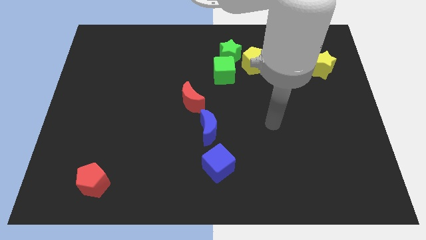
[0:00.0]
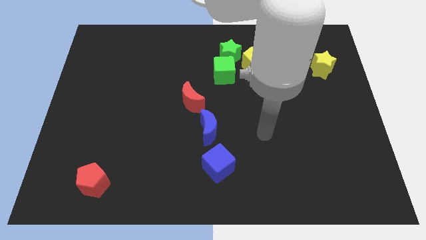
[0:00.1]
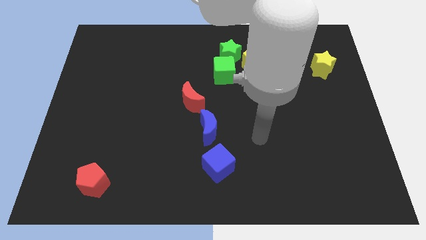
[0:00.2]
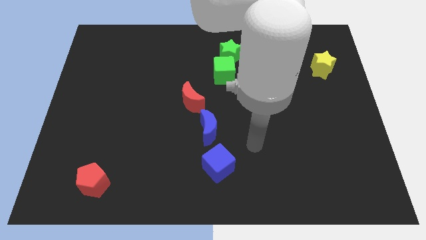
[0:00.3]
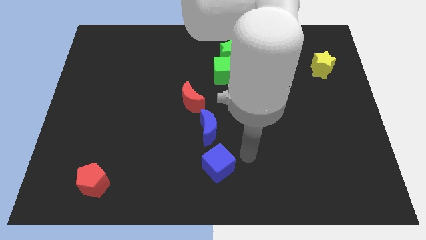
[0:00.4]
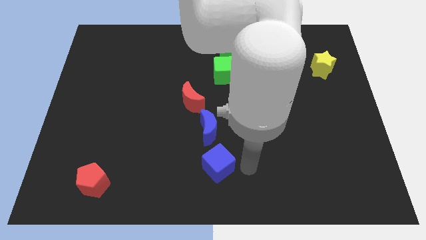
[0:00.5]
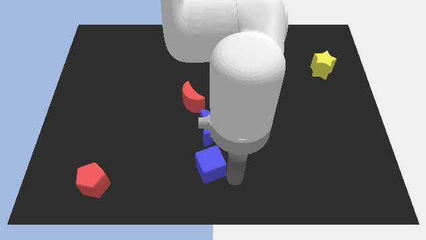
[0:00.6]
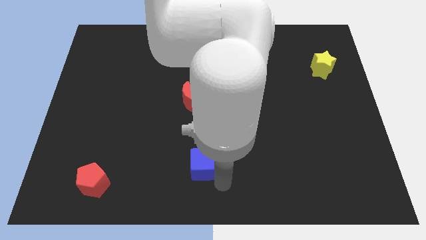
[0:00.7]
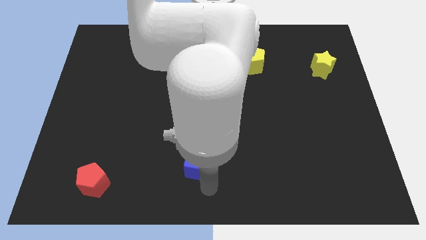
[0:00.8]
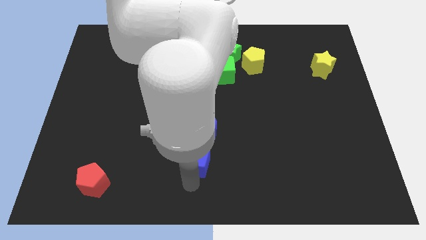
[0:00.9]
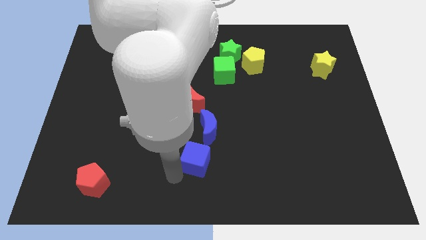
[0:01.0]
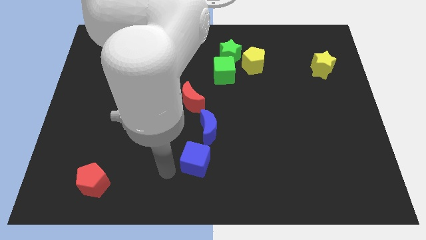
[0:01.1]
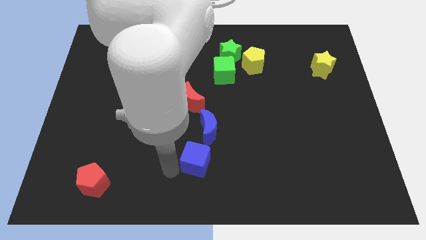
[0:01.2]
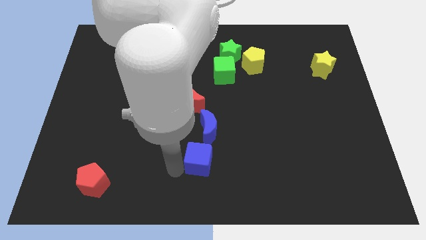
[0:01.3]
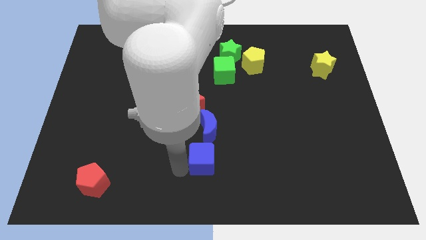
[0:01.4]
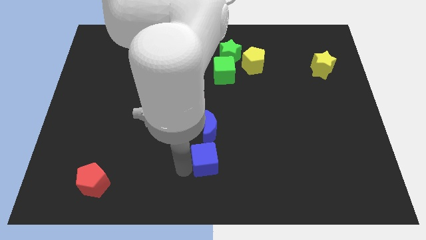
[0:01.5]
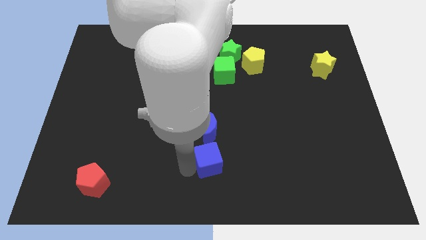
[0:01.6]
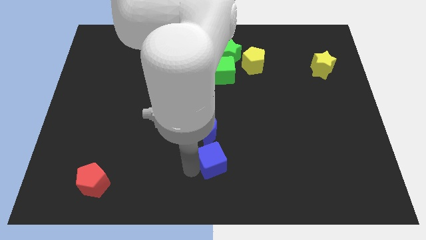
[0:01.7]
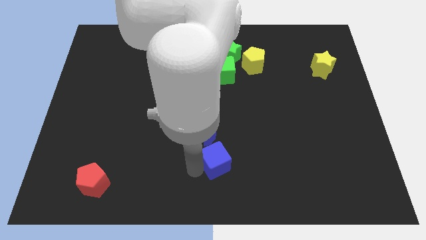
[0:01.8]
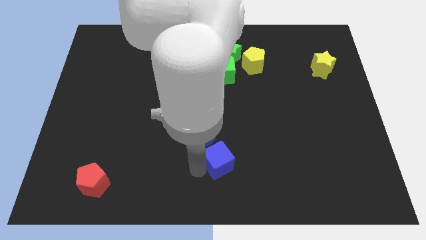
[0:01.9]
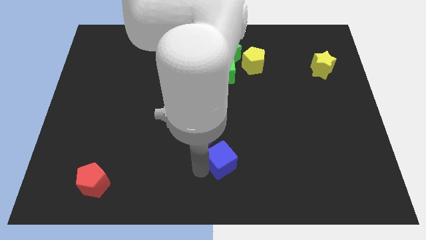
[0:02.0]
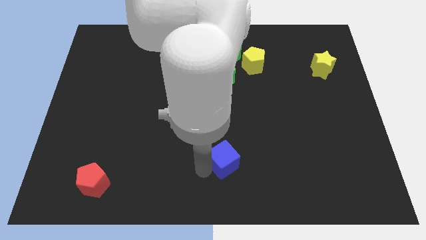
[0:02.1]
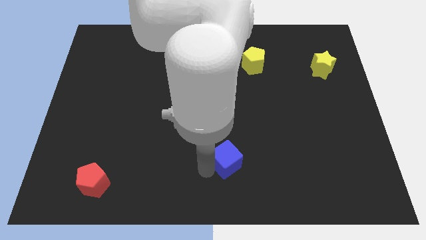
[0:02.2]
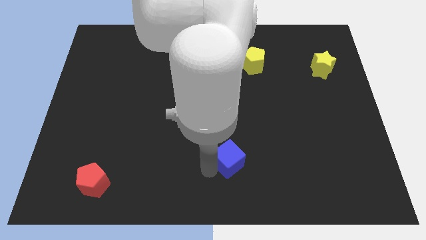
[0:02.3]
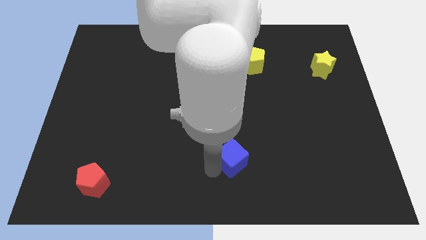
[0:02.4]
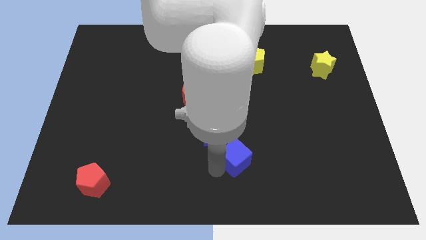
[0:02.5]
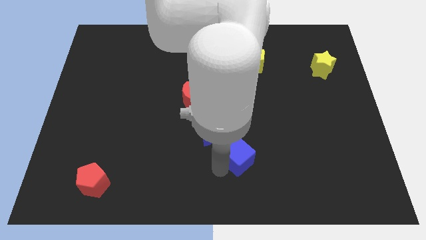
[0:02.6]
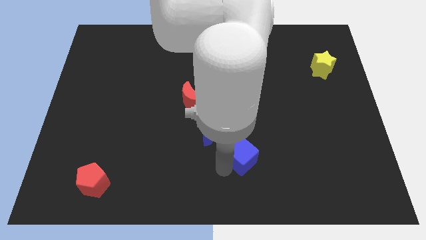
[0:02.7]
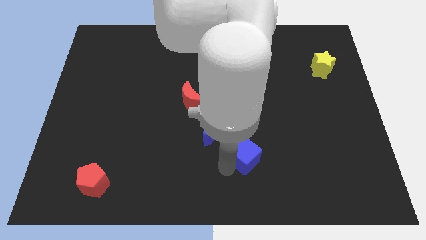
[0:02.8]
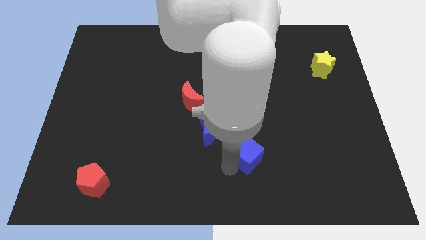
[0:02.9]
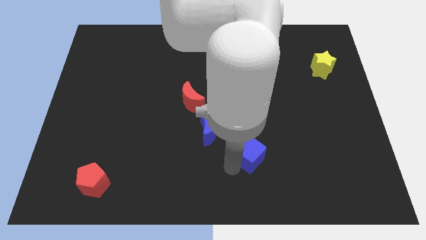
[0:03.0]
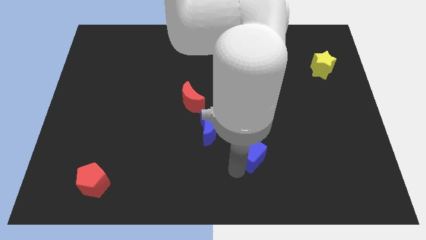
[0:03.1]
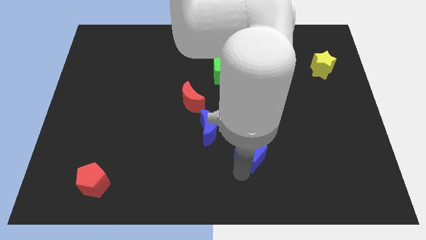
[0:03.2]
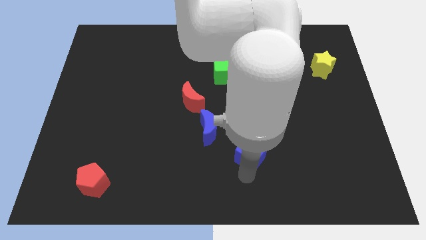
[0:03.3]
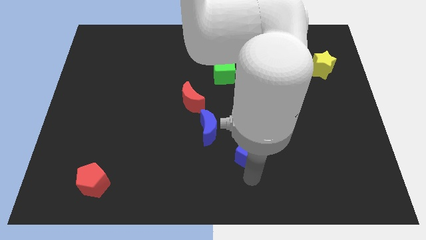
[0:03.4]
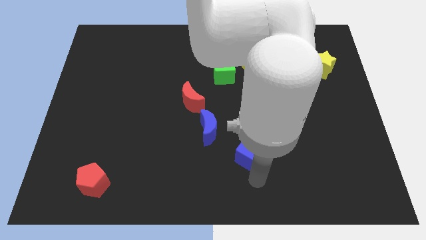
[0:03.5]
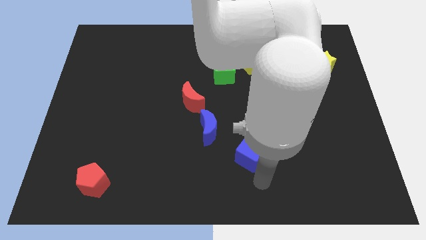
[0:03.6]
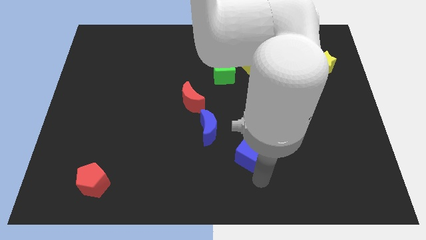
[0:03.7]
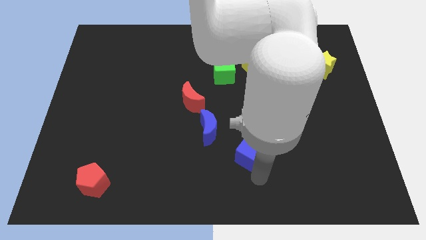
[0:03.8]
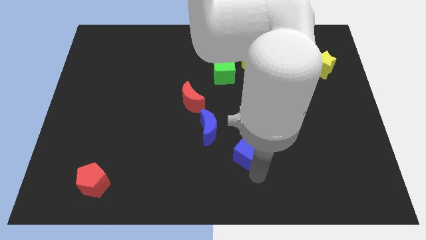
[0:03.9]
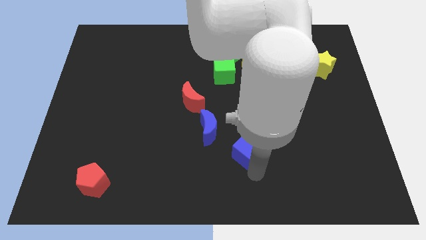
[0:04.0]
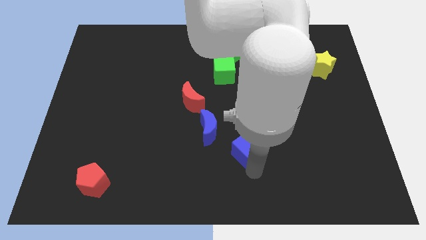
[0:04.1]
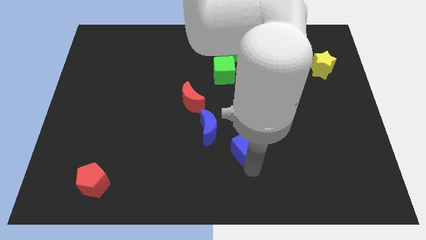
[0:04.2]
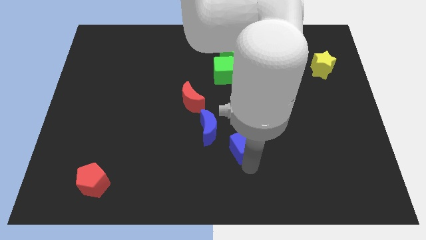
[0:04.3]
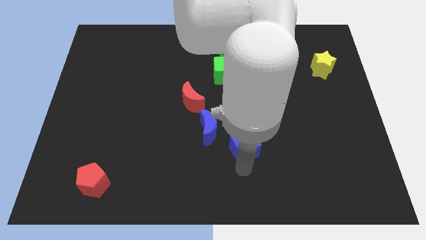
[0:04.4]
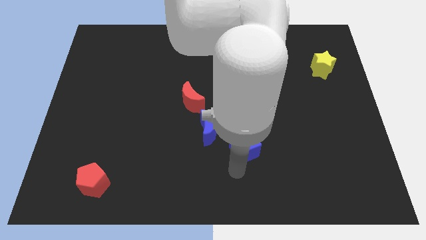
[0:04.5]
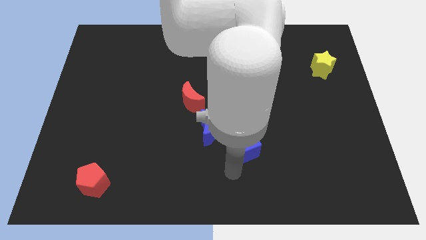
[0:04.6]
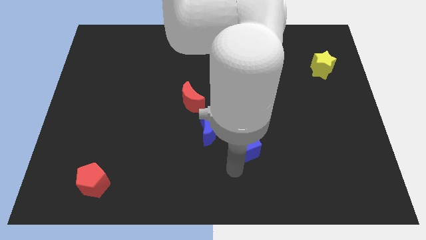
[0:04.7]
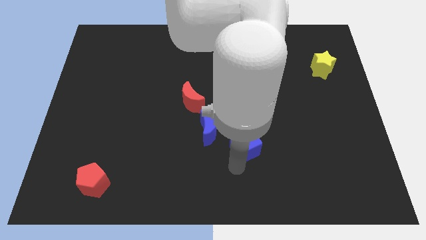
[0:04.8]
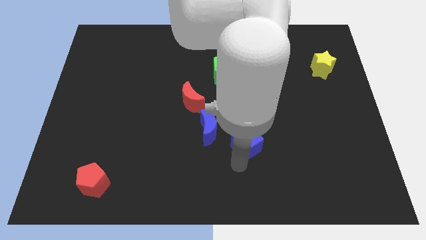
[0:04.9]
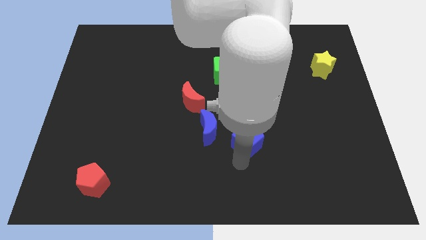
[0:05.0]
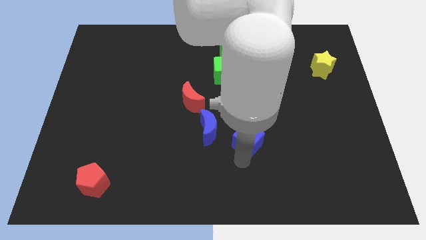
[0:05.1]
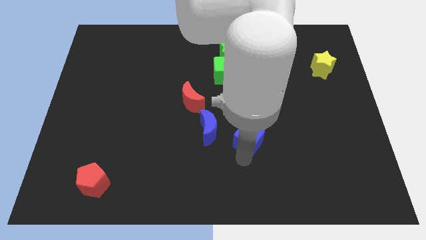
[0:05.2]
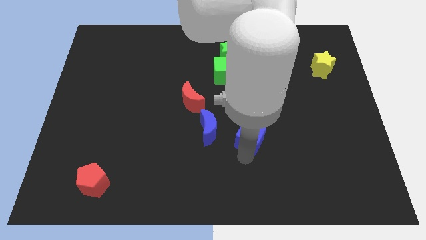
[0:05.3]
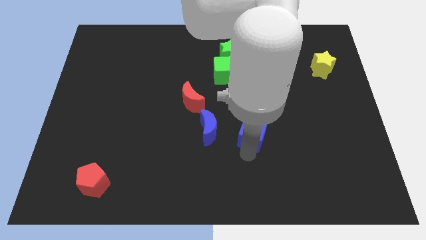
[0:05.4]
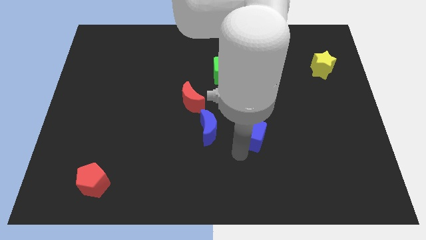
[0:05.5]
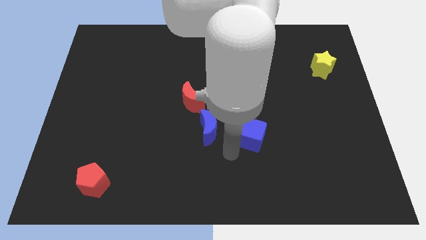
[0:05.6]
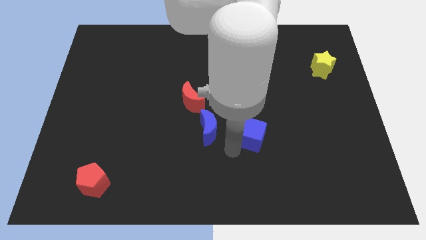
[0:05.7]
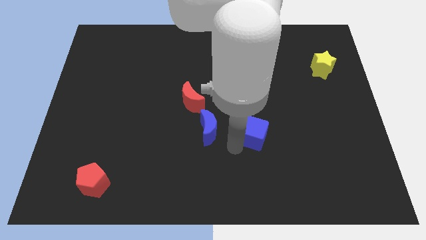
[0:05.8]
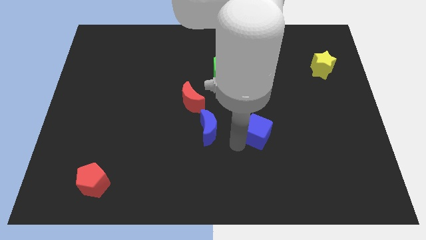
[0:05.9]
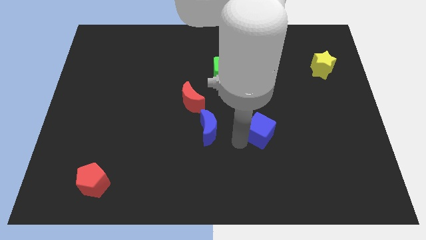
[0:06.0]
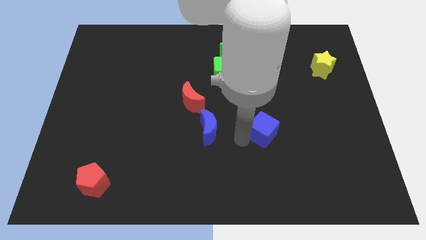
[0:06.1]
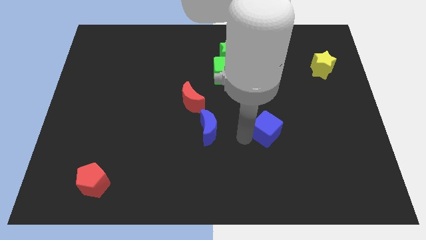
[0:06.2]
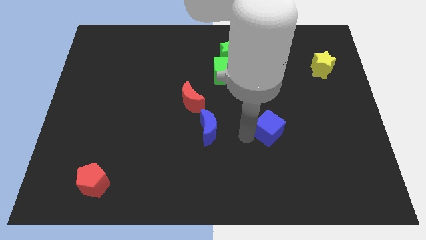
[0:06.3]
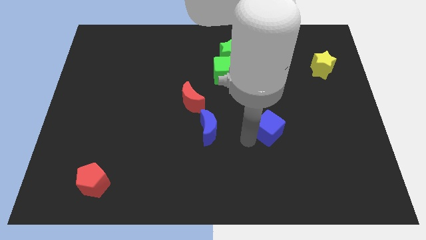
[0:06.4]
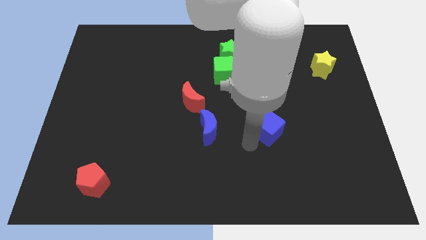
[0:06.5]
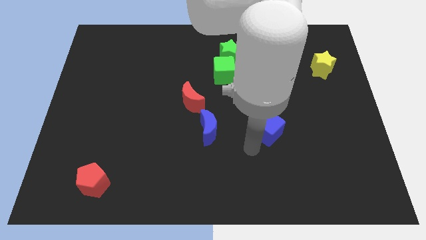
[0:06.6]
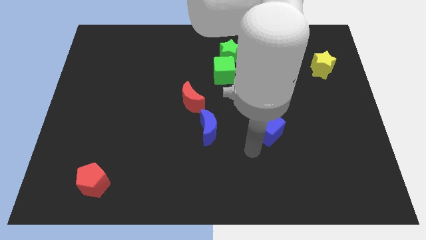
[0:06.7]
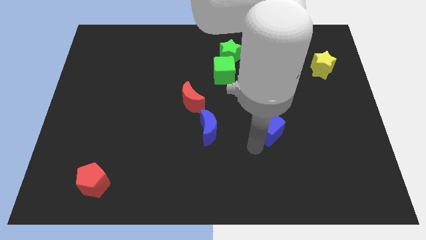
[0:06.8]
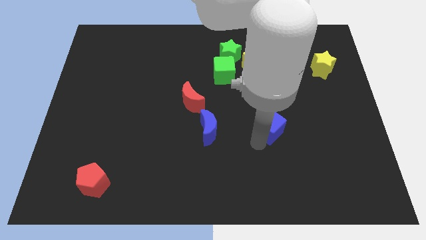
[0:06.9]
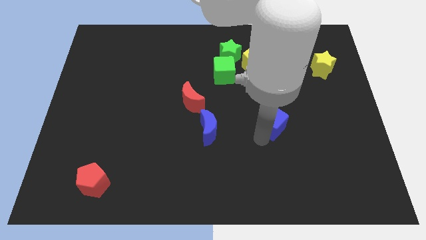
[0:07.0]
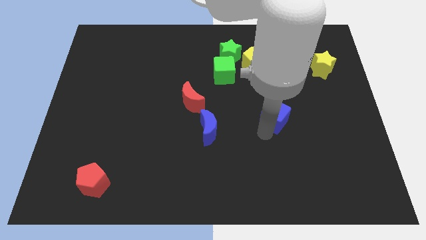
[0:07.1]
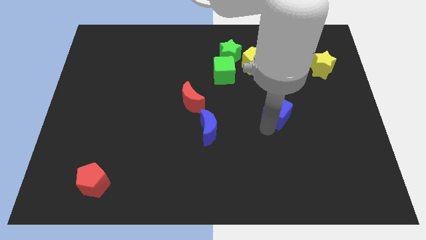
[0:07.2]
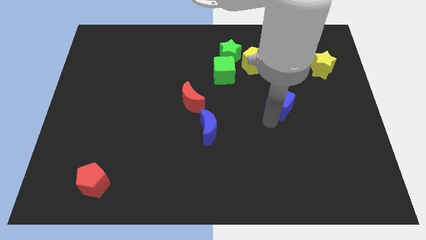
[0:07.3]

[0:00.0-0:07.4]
slide the blue cube up and then right

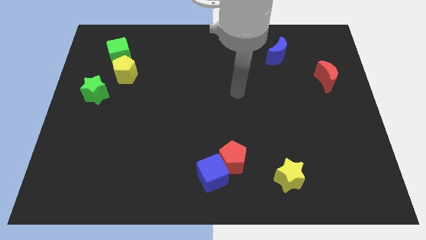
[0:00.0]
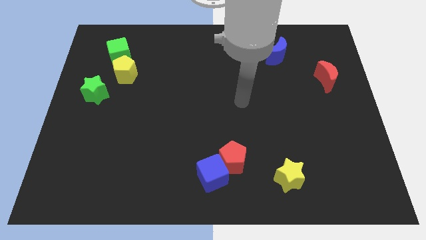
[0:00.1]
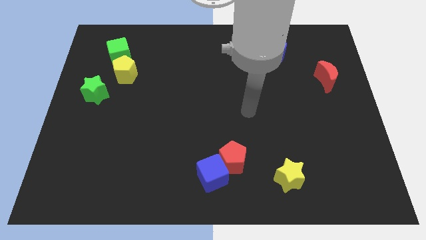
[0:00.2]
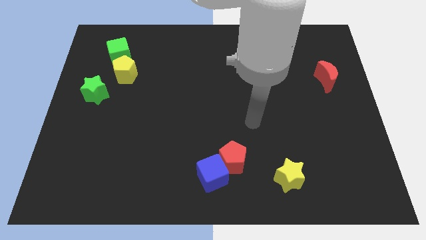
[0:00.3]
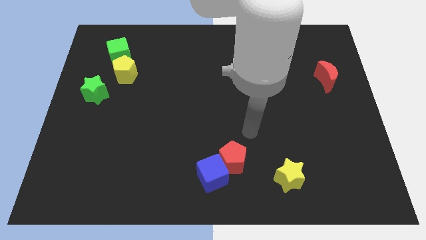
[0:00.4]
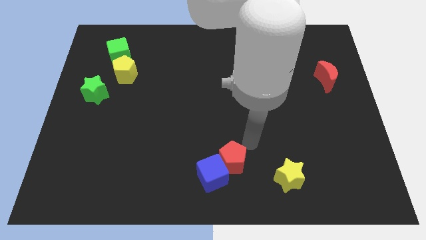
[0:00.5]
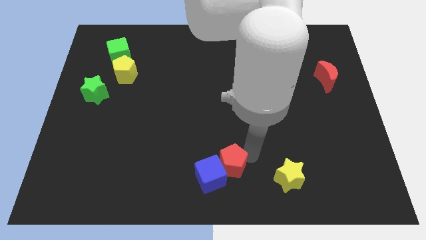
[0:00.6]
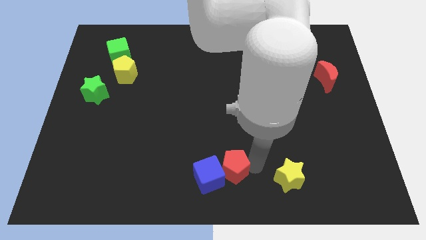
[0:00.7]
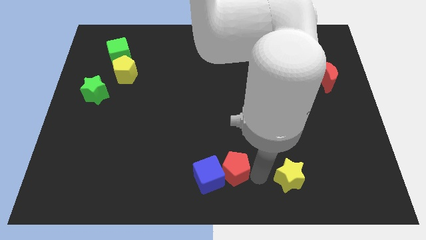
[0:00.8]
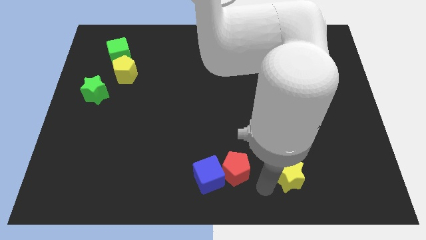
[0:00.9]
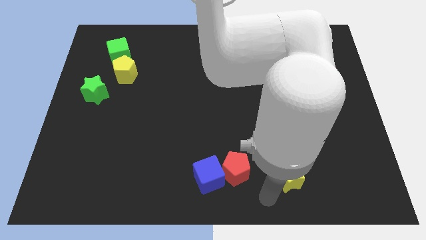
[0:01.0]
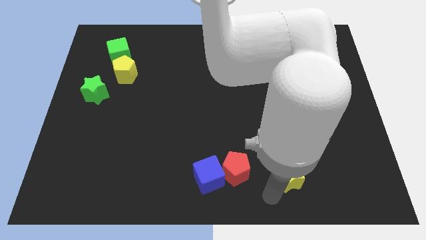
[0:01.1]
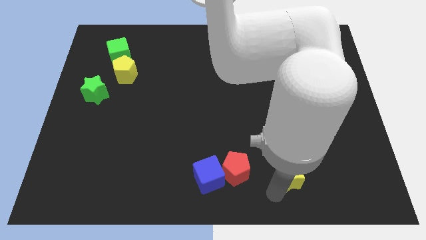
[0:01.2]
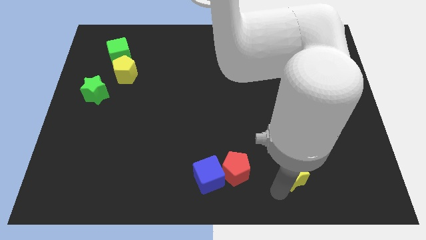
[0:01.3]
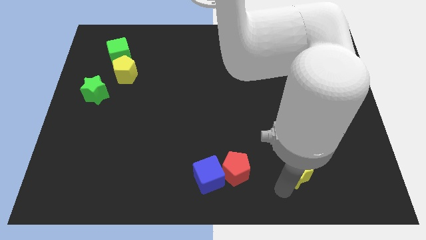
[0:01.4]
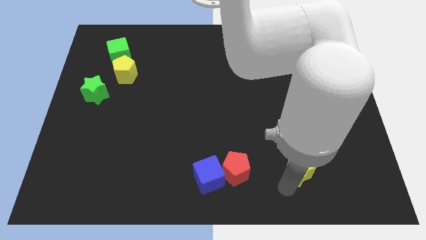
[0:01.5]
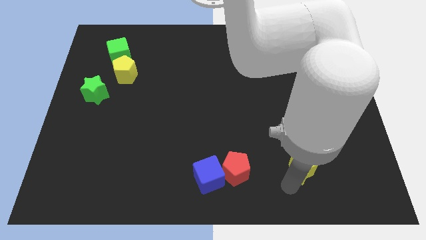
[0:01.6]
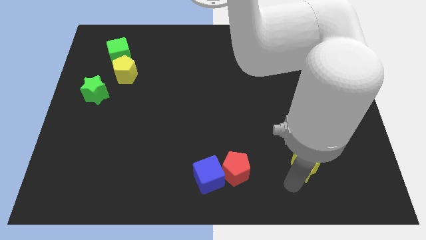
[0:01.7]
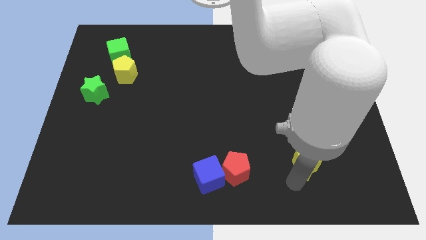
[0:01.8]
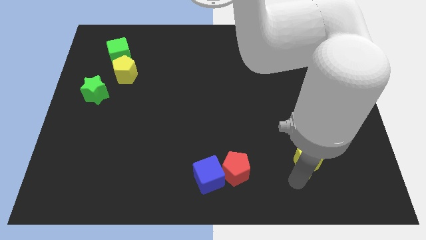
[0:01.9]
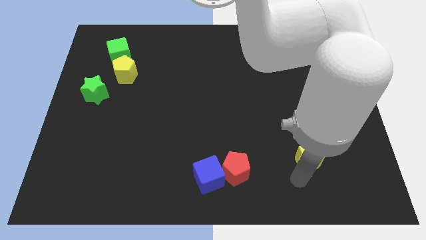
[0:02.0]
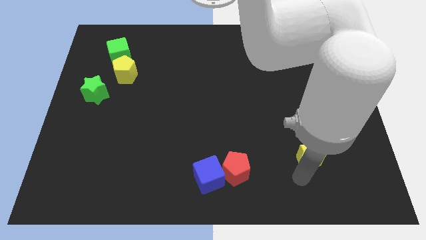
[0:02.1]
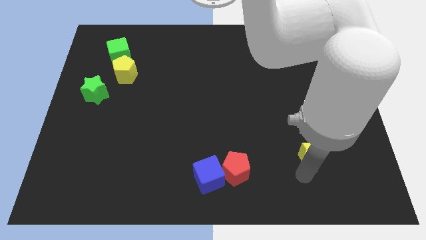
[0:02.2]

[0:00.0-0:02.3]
push the yellow star slightly diagonally upwards and right
